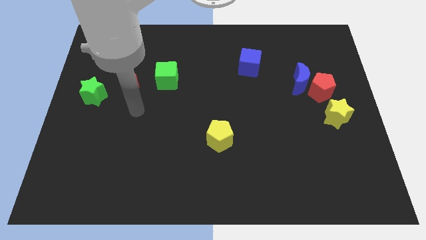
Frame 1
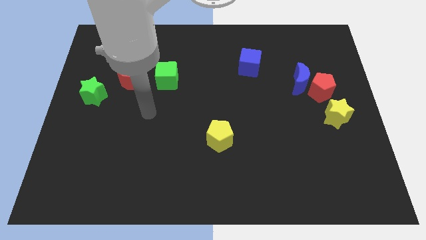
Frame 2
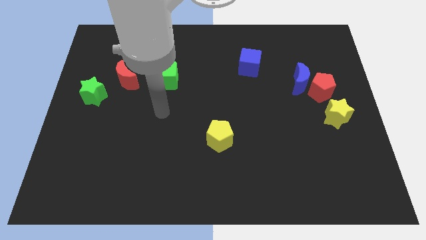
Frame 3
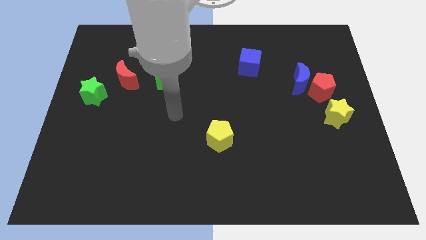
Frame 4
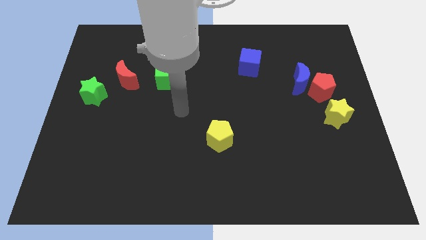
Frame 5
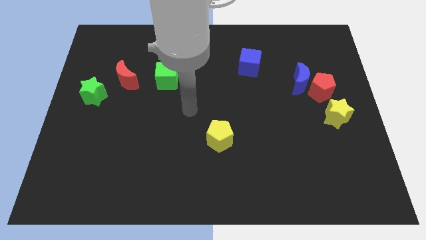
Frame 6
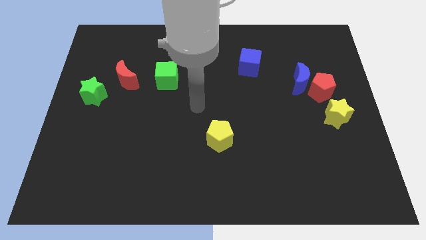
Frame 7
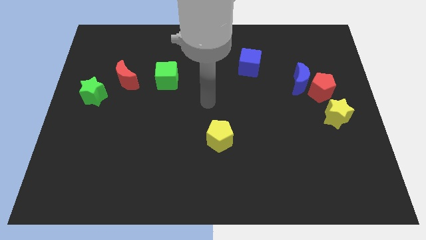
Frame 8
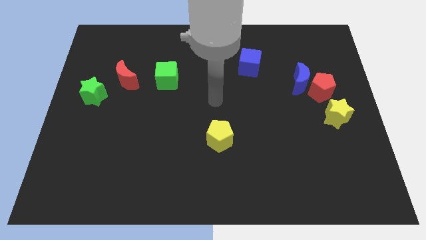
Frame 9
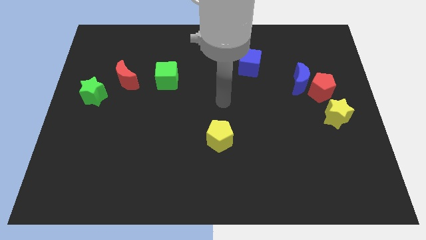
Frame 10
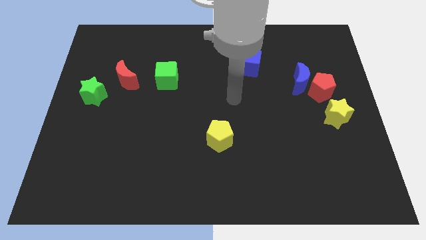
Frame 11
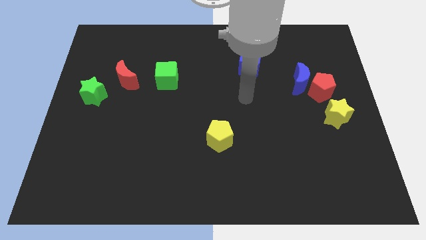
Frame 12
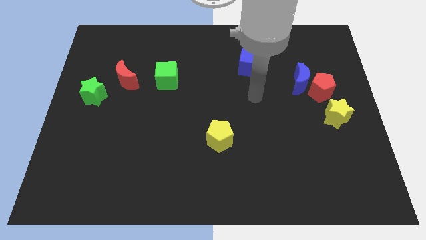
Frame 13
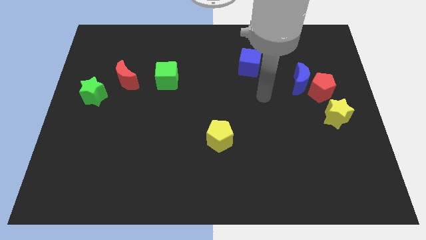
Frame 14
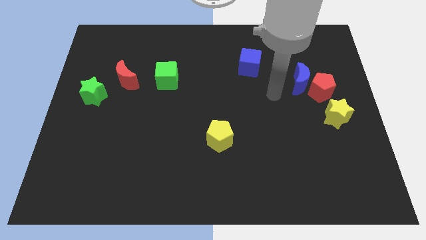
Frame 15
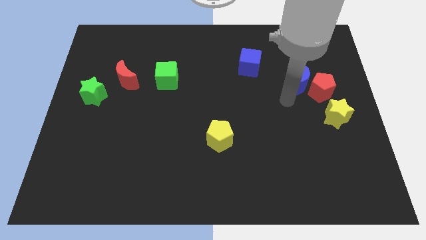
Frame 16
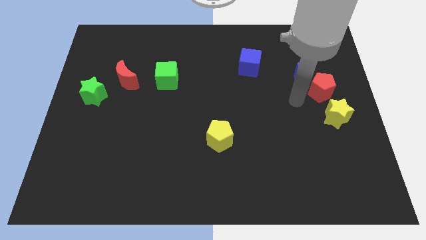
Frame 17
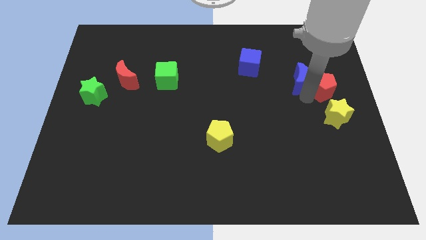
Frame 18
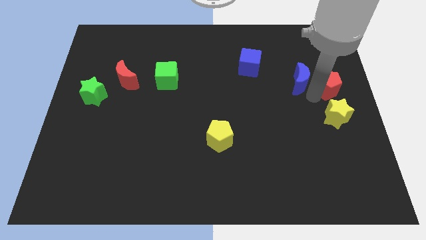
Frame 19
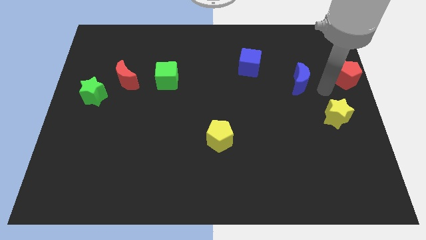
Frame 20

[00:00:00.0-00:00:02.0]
move the blue moon away from the red pentagon

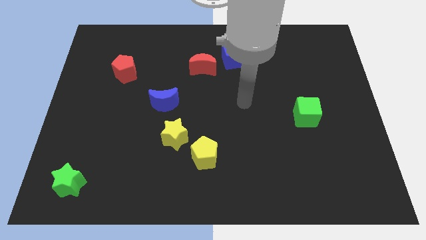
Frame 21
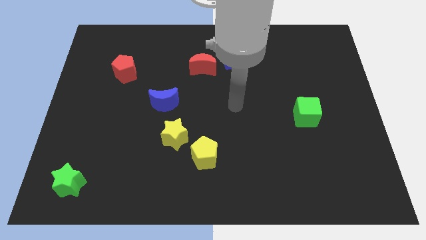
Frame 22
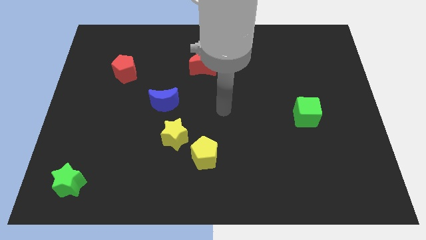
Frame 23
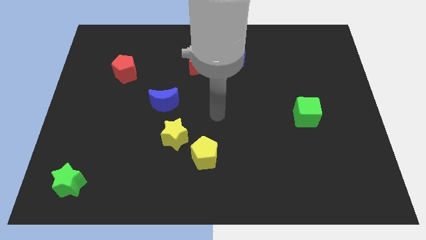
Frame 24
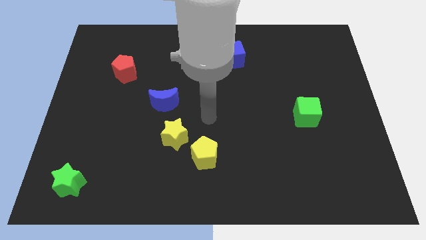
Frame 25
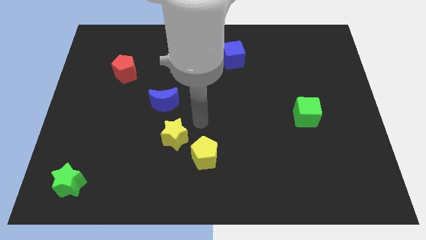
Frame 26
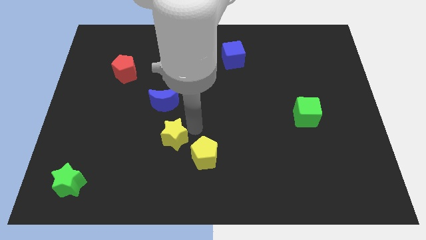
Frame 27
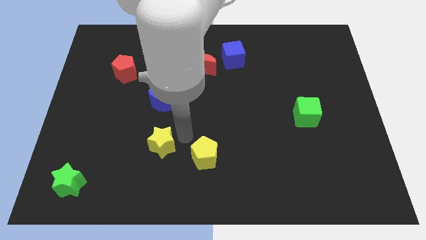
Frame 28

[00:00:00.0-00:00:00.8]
move the yellow pentagon away from the yellow star

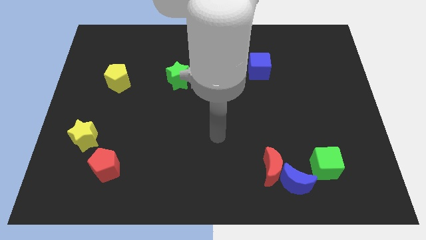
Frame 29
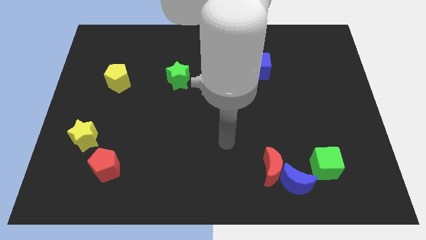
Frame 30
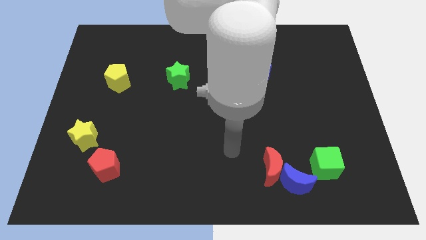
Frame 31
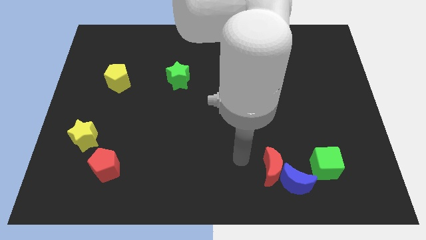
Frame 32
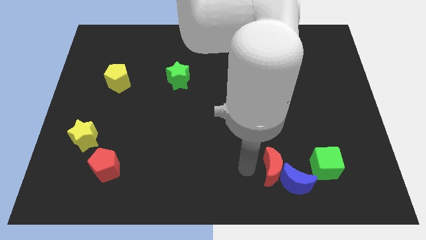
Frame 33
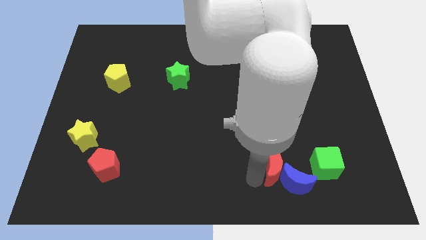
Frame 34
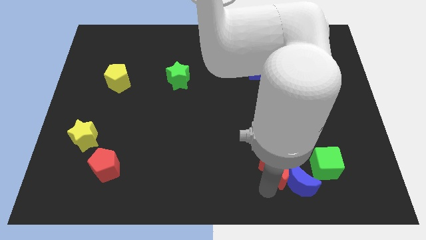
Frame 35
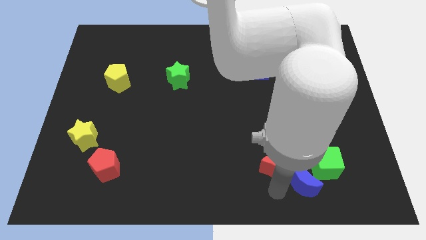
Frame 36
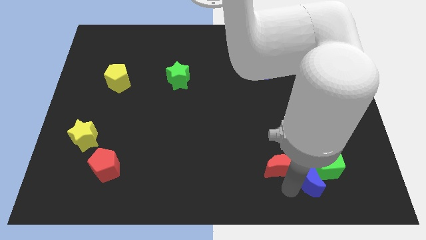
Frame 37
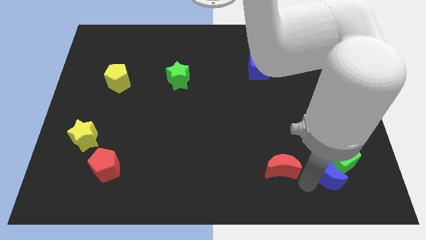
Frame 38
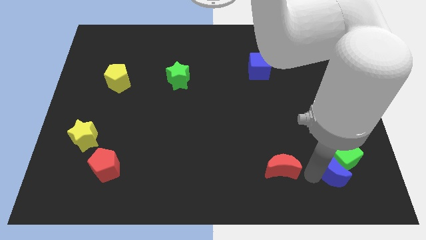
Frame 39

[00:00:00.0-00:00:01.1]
move the red moon away from the blue moon

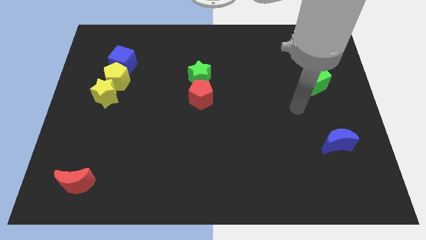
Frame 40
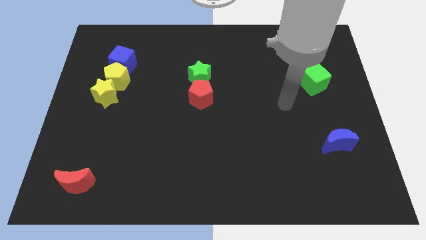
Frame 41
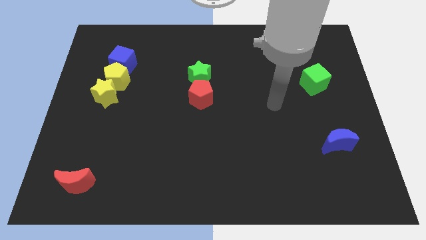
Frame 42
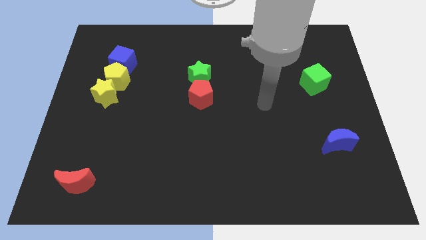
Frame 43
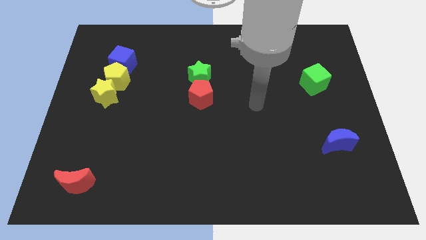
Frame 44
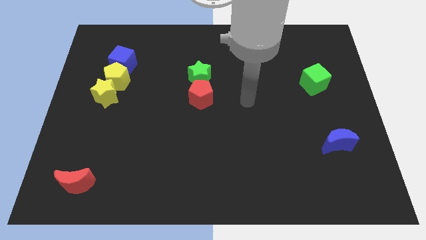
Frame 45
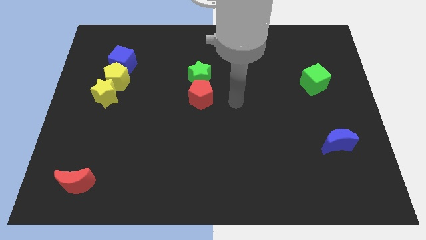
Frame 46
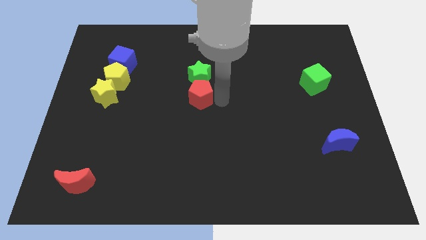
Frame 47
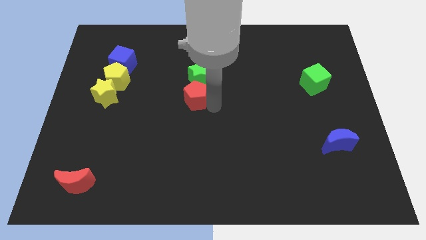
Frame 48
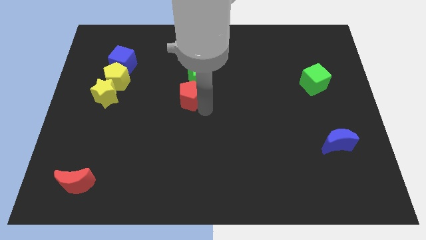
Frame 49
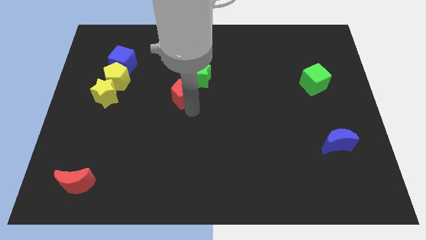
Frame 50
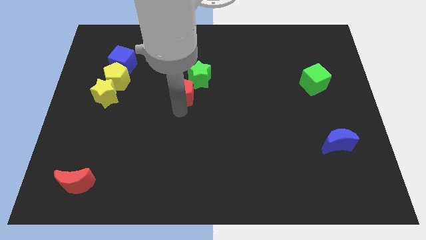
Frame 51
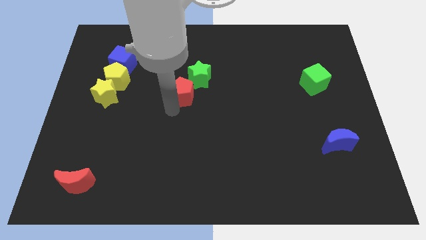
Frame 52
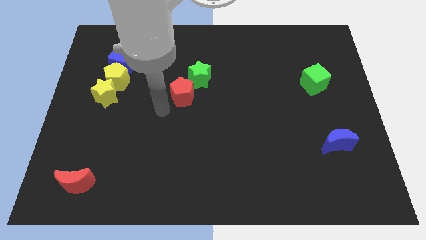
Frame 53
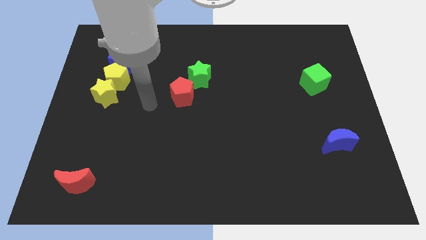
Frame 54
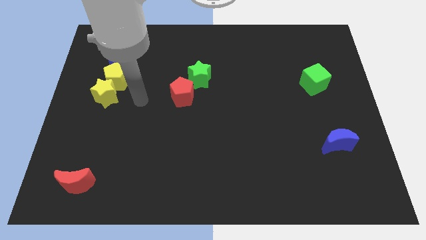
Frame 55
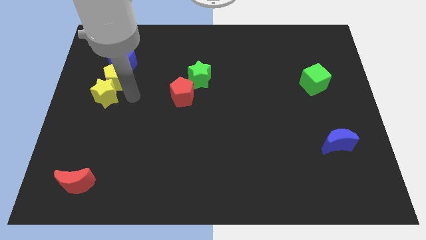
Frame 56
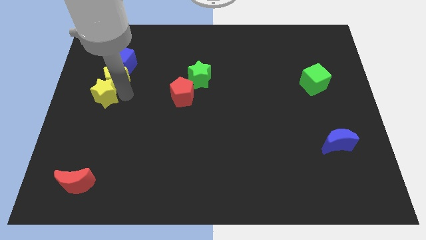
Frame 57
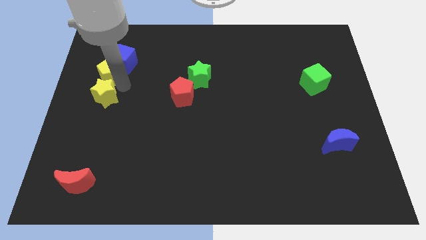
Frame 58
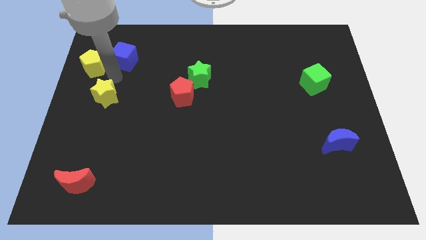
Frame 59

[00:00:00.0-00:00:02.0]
separate the yellow star from the yellow pentagon

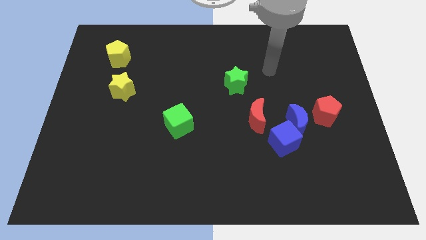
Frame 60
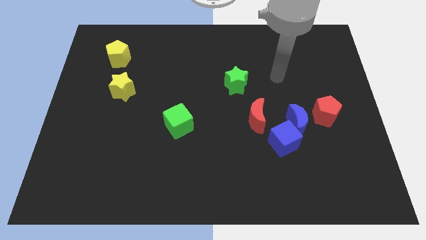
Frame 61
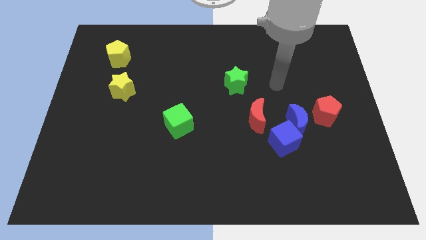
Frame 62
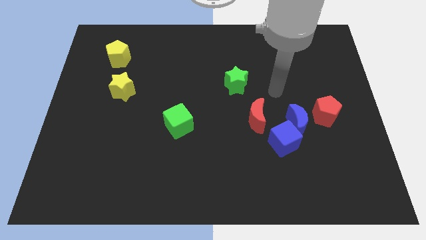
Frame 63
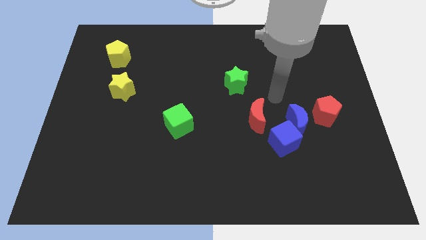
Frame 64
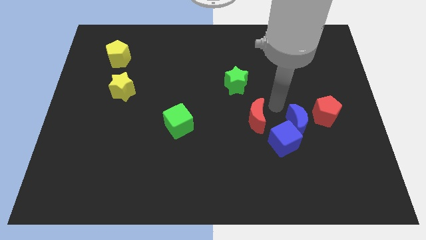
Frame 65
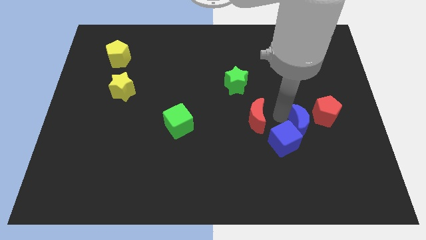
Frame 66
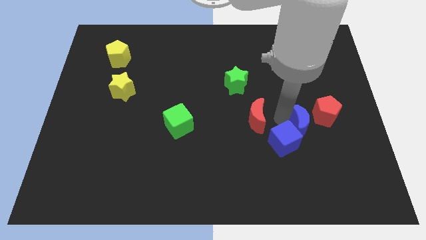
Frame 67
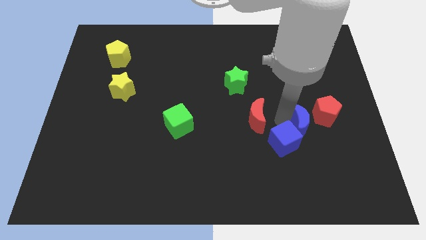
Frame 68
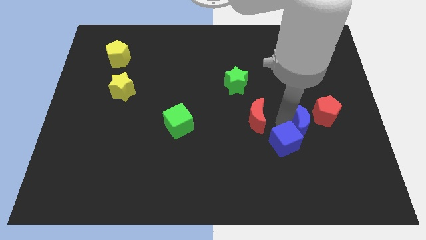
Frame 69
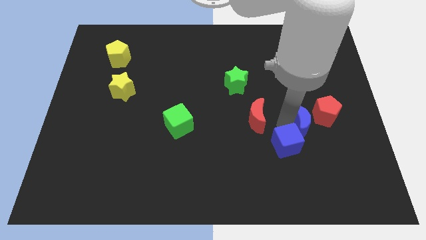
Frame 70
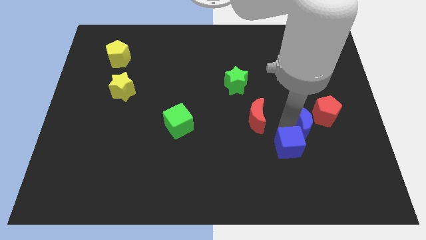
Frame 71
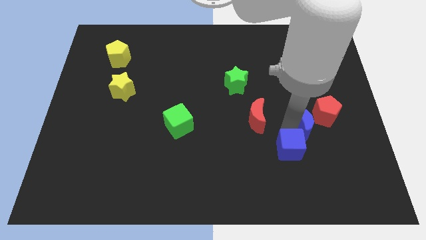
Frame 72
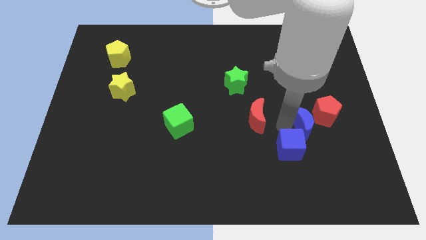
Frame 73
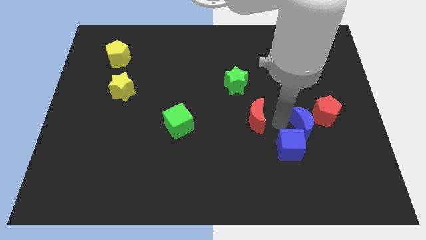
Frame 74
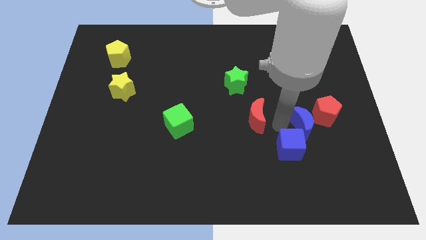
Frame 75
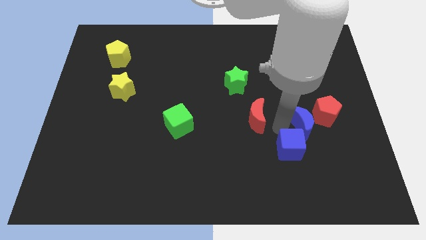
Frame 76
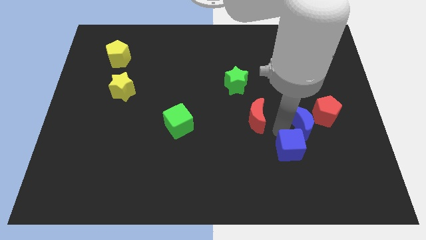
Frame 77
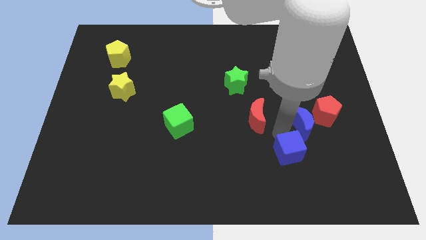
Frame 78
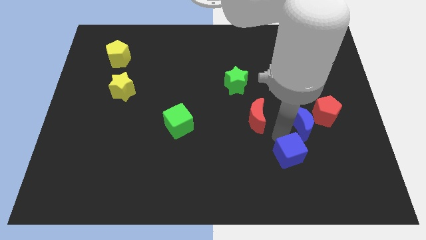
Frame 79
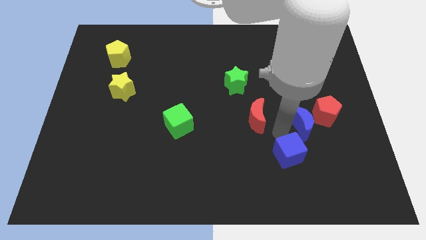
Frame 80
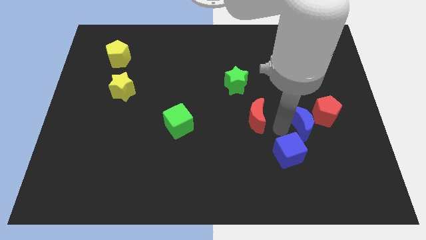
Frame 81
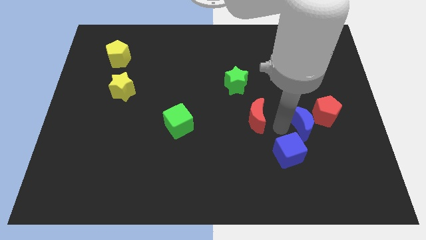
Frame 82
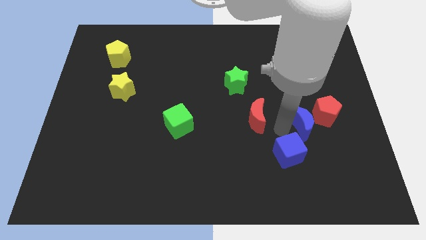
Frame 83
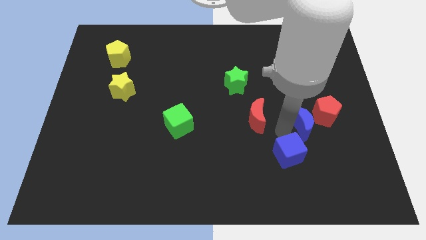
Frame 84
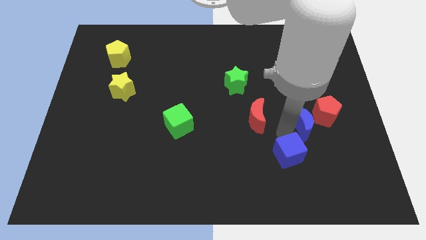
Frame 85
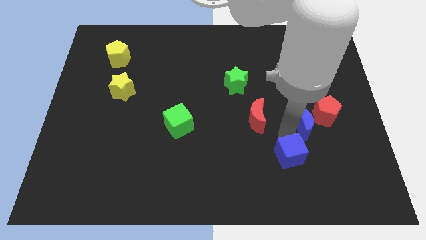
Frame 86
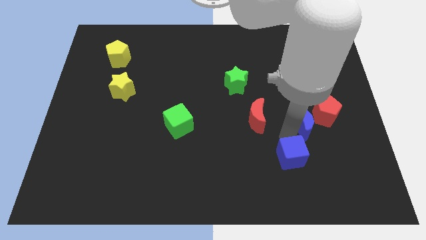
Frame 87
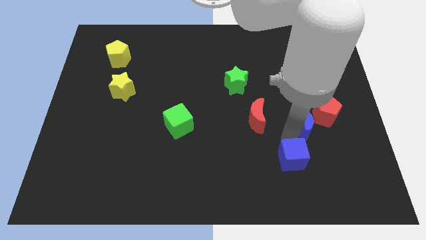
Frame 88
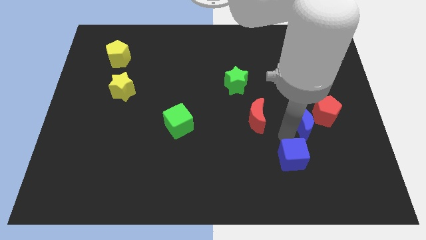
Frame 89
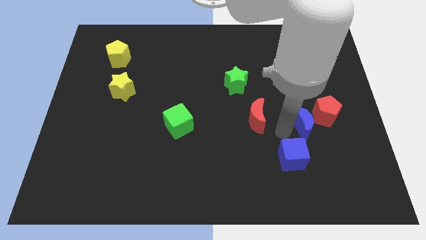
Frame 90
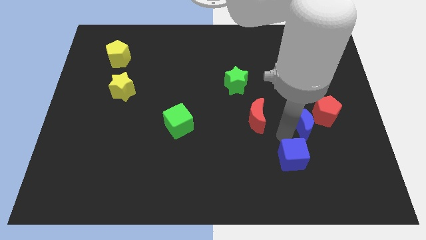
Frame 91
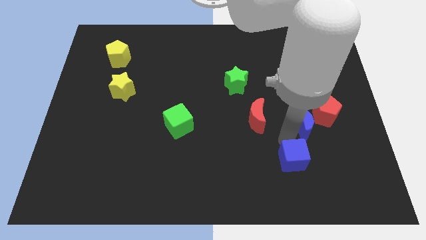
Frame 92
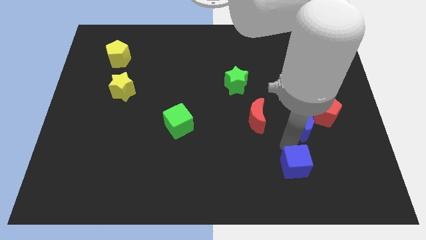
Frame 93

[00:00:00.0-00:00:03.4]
move the blue cube away from the blue moon and red moon
